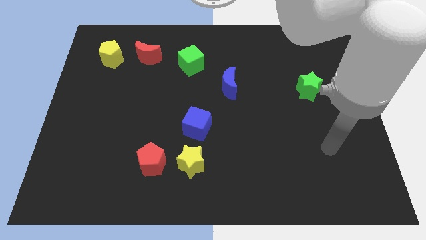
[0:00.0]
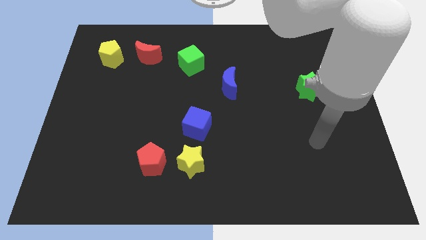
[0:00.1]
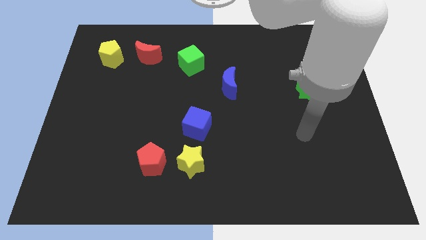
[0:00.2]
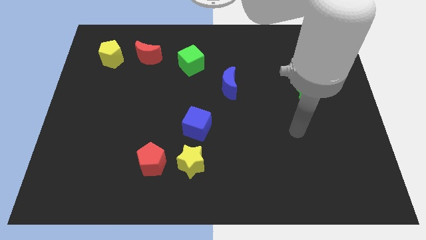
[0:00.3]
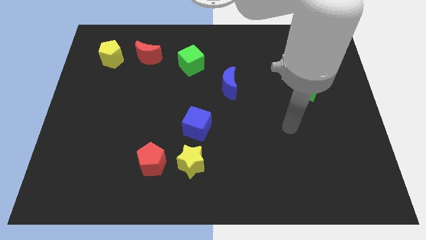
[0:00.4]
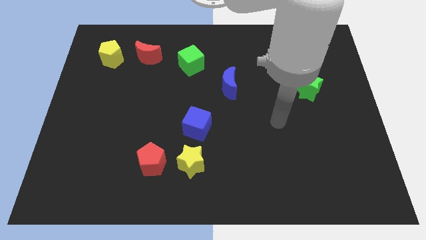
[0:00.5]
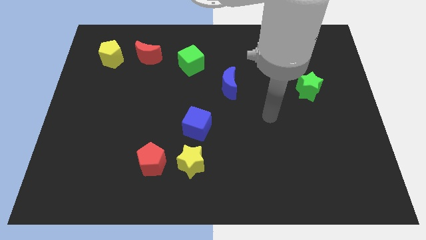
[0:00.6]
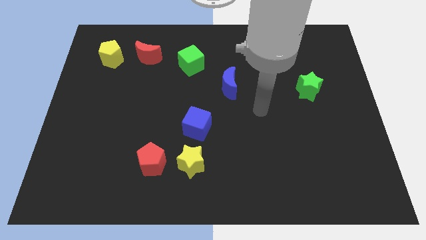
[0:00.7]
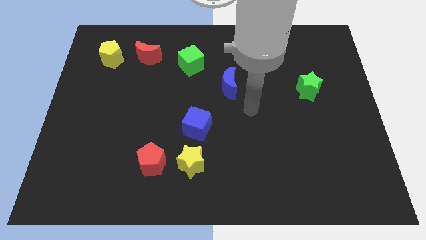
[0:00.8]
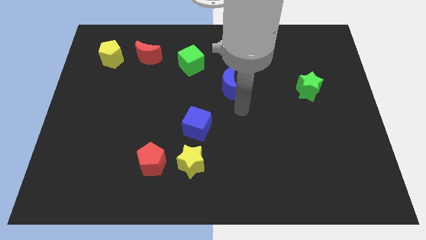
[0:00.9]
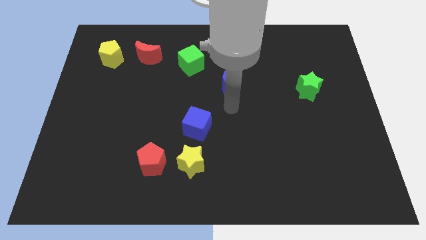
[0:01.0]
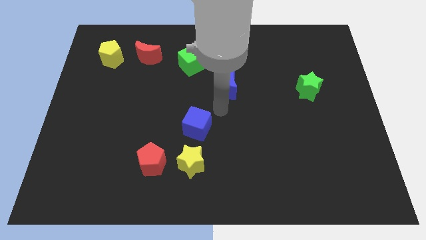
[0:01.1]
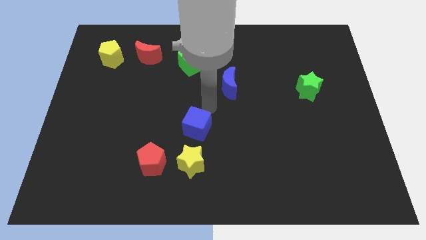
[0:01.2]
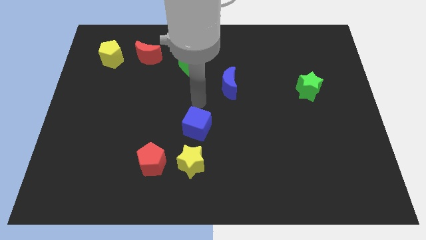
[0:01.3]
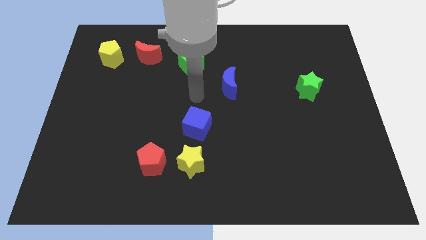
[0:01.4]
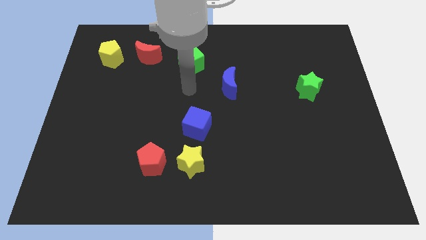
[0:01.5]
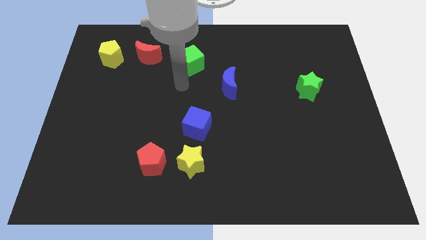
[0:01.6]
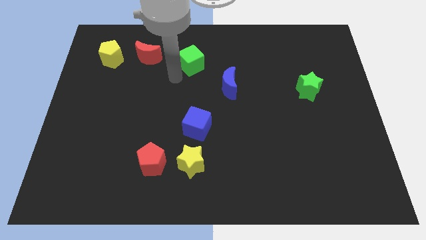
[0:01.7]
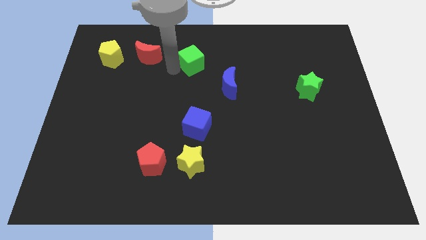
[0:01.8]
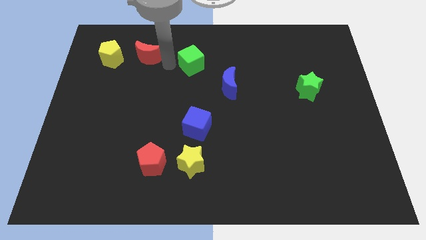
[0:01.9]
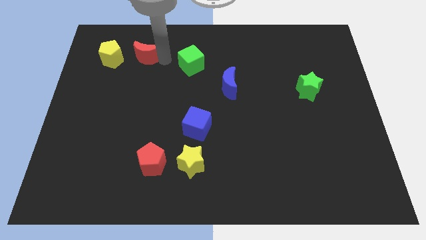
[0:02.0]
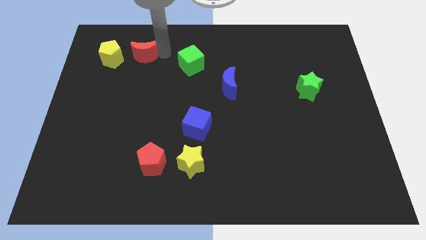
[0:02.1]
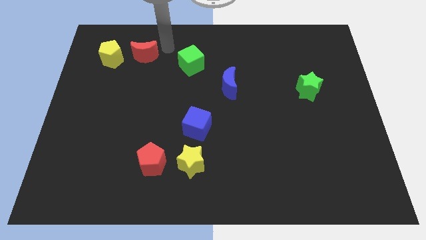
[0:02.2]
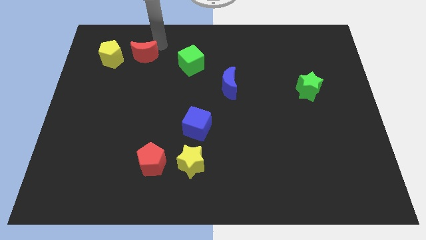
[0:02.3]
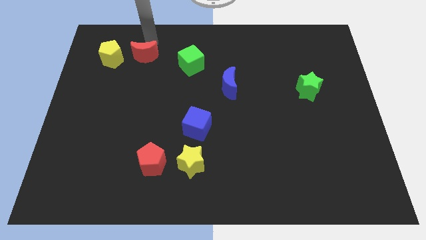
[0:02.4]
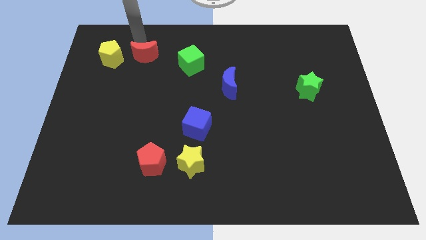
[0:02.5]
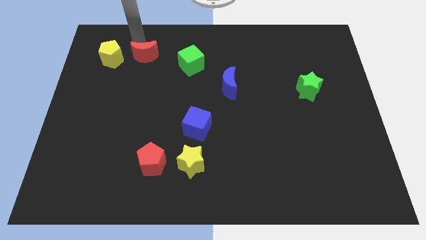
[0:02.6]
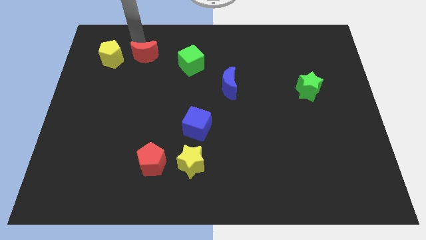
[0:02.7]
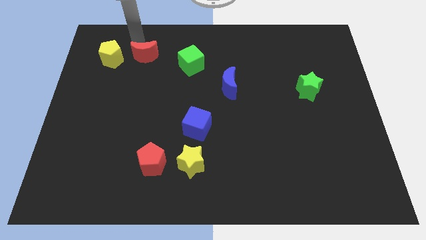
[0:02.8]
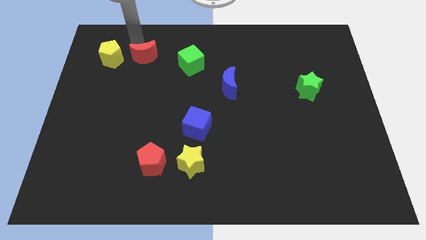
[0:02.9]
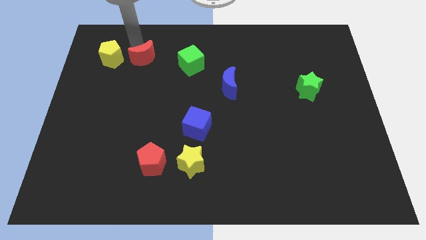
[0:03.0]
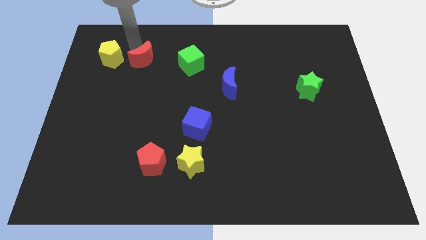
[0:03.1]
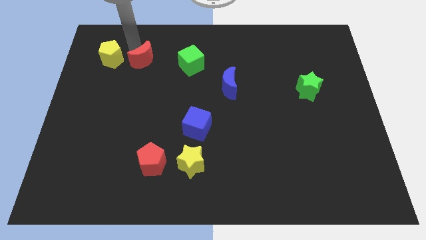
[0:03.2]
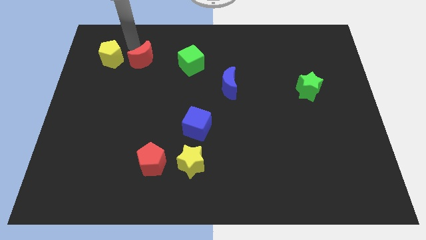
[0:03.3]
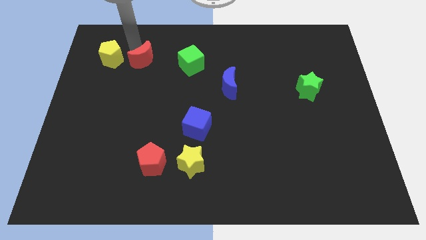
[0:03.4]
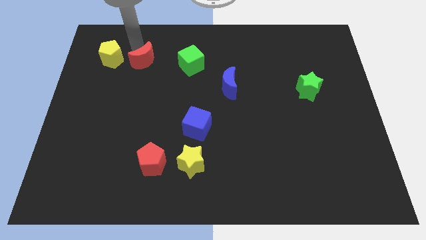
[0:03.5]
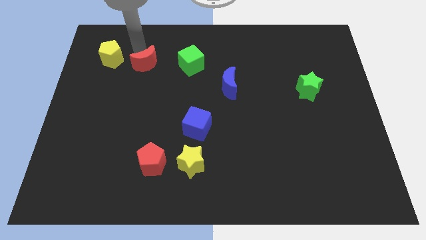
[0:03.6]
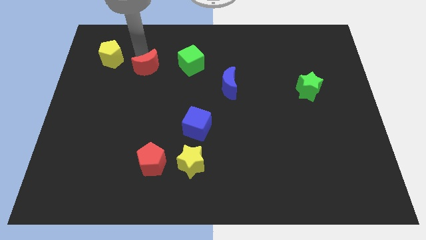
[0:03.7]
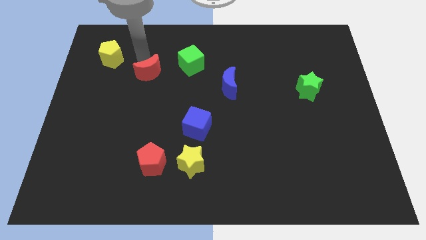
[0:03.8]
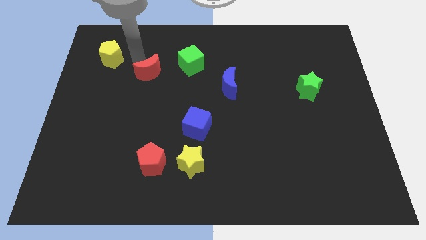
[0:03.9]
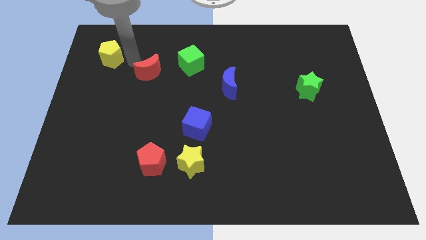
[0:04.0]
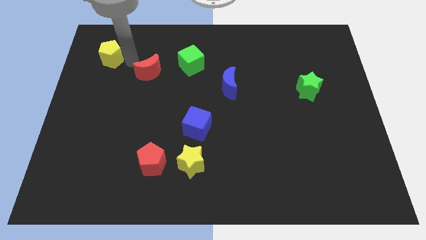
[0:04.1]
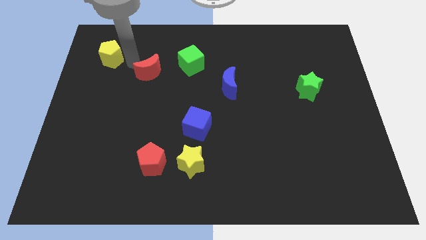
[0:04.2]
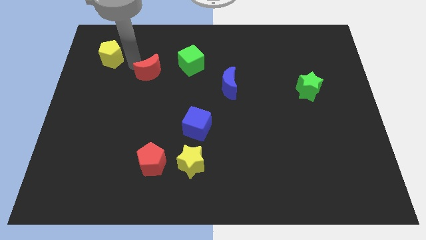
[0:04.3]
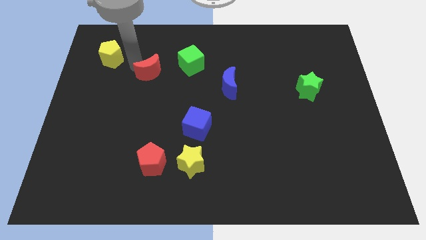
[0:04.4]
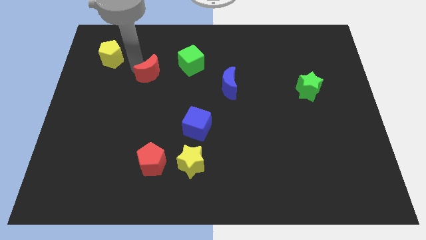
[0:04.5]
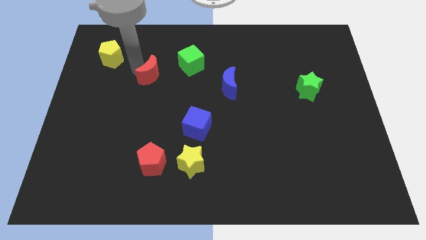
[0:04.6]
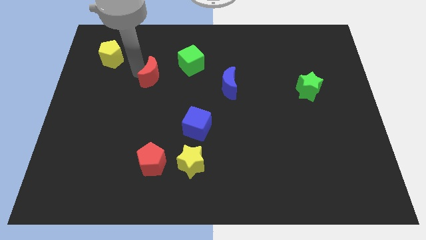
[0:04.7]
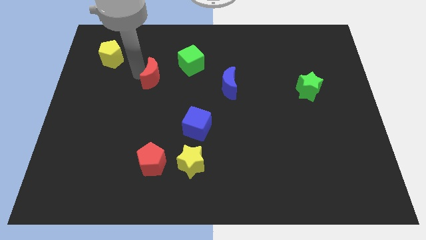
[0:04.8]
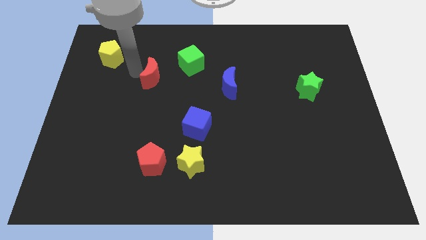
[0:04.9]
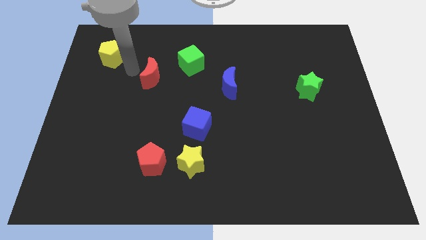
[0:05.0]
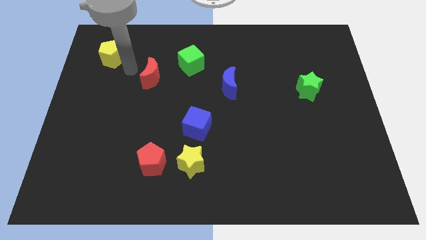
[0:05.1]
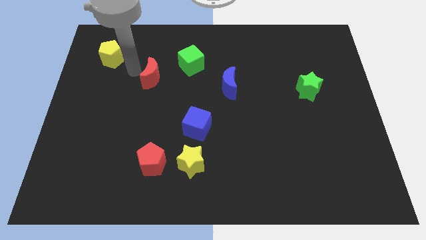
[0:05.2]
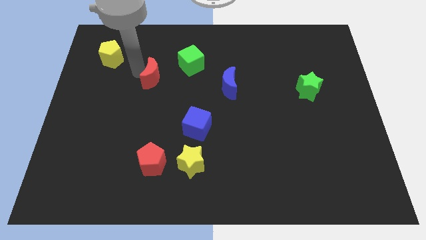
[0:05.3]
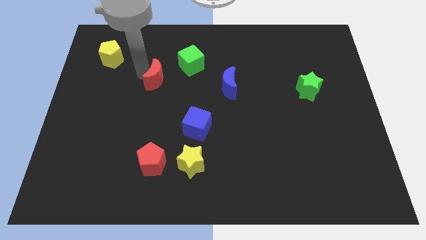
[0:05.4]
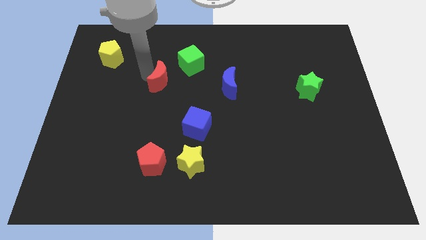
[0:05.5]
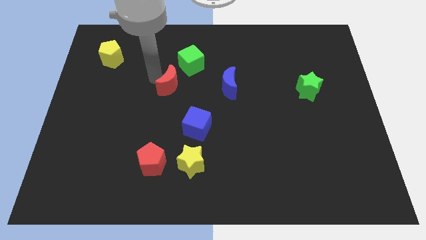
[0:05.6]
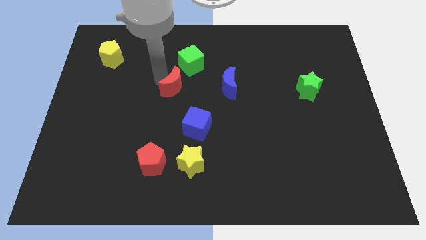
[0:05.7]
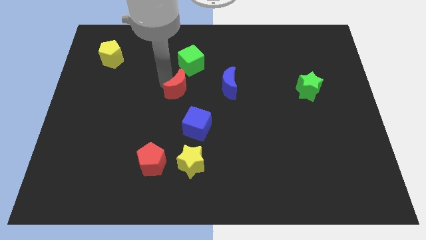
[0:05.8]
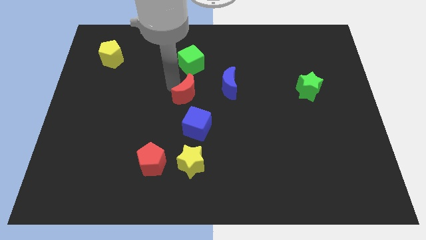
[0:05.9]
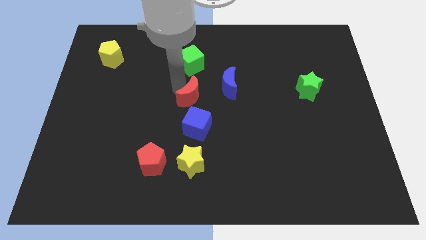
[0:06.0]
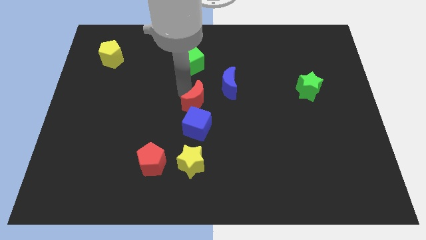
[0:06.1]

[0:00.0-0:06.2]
move the red moon downwards and right diagonally

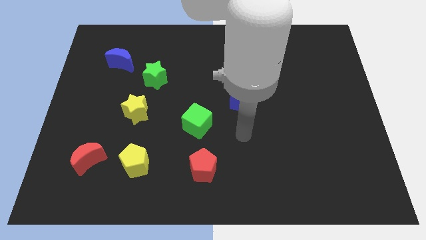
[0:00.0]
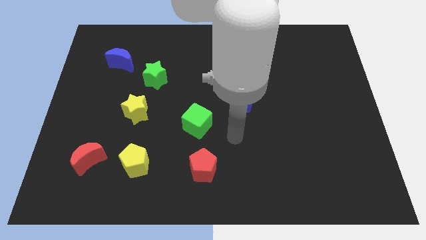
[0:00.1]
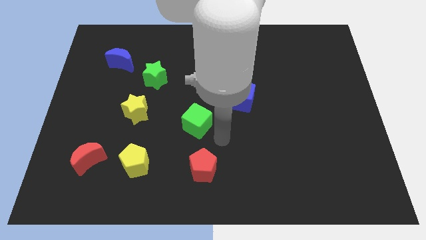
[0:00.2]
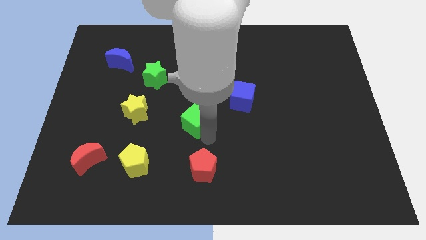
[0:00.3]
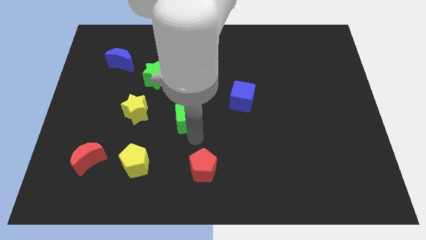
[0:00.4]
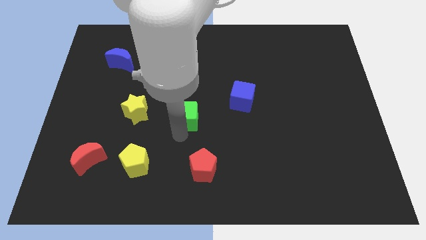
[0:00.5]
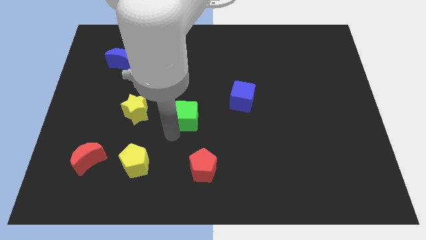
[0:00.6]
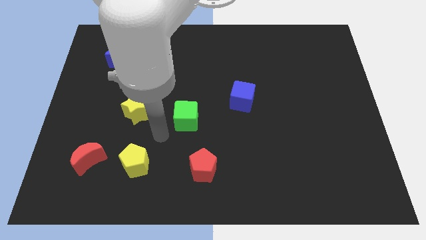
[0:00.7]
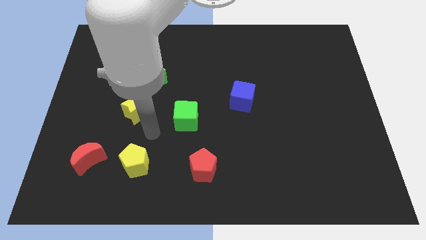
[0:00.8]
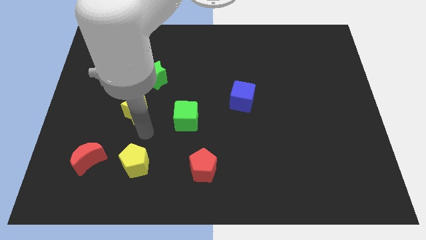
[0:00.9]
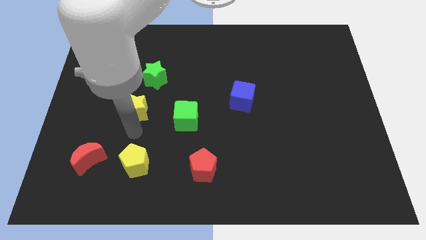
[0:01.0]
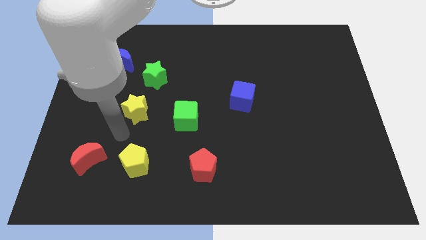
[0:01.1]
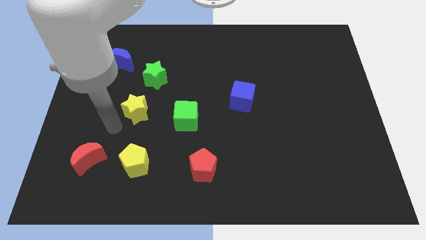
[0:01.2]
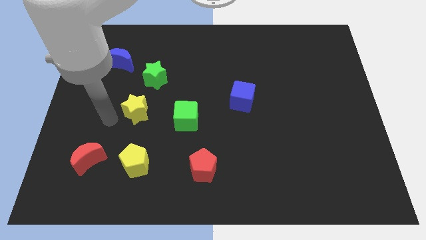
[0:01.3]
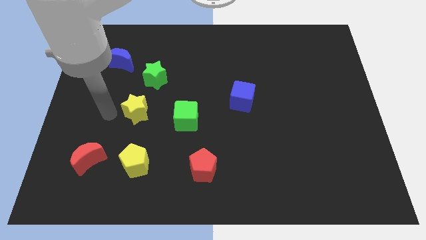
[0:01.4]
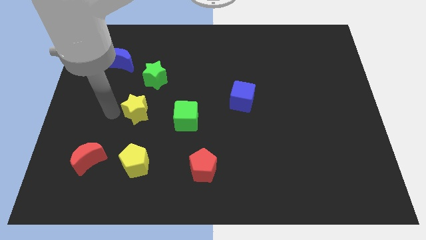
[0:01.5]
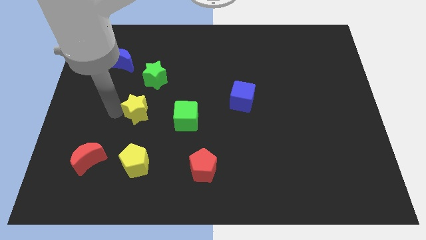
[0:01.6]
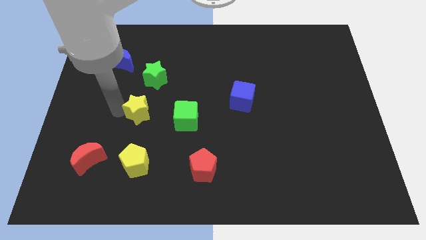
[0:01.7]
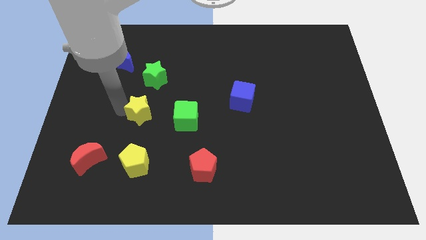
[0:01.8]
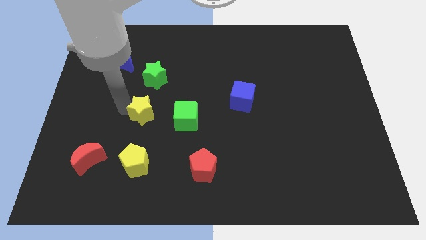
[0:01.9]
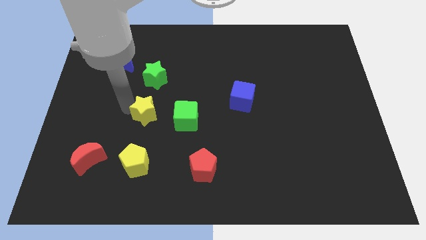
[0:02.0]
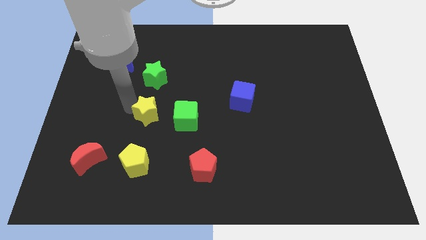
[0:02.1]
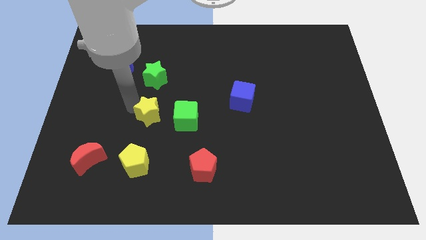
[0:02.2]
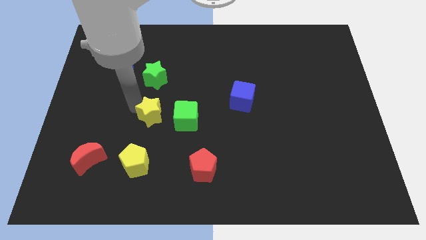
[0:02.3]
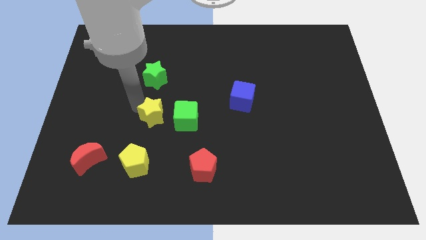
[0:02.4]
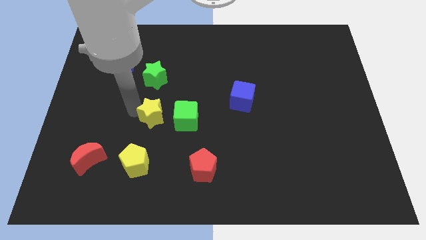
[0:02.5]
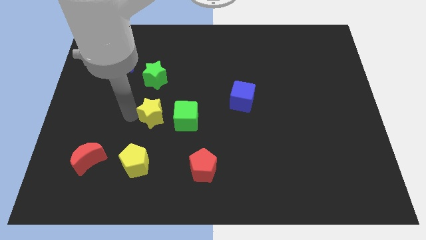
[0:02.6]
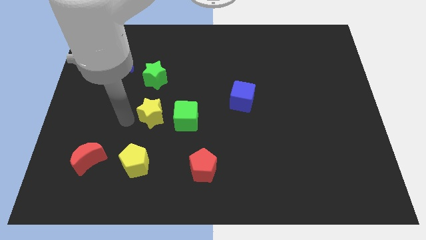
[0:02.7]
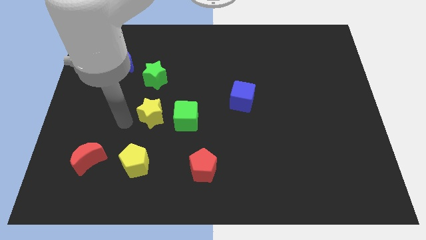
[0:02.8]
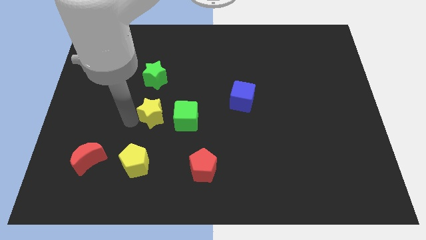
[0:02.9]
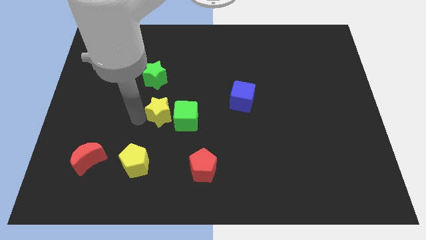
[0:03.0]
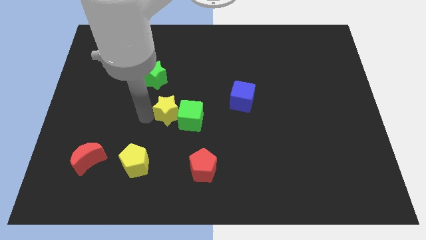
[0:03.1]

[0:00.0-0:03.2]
move the yellow star to the right a little bit
